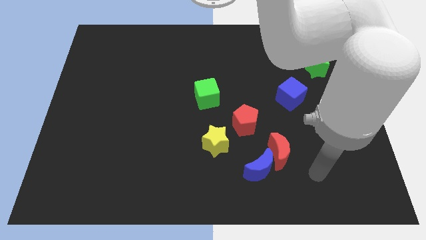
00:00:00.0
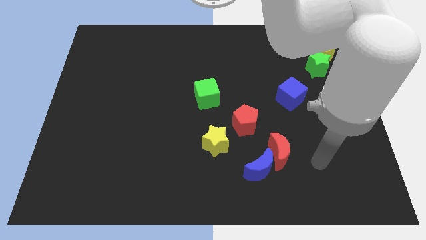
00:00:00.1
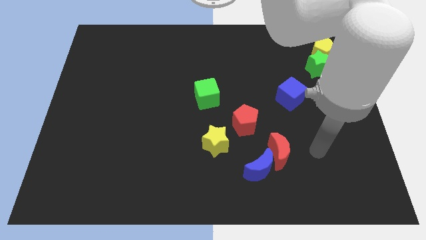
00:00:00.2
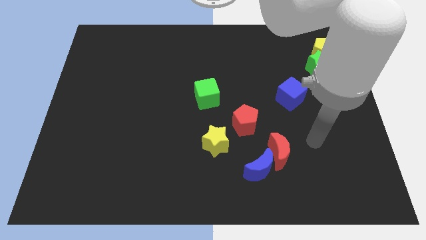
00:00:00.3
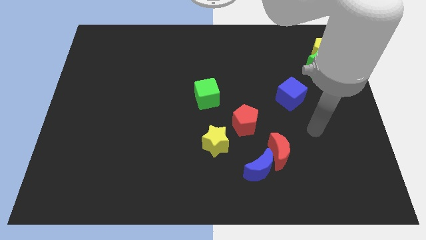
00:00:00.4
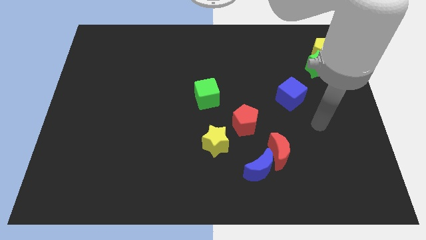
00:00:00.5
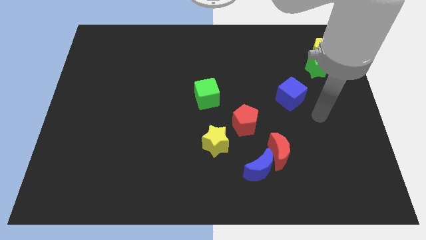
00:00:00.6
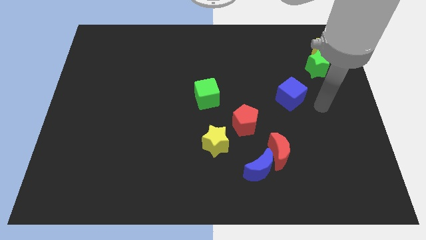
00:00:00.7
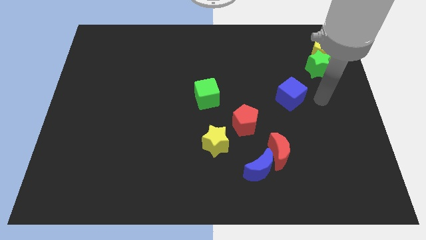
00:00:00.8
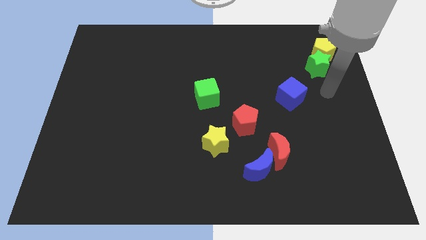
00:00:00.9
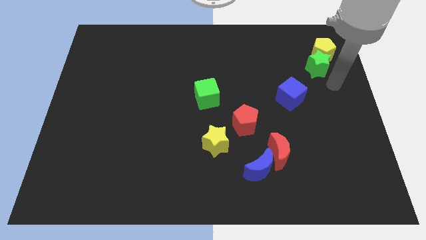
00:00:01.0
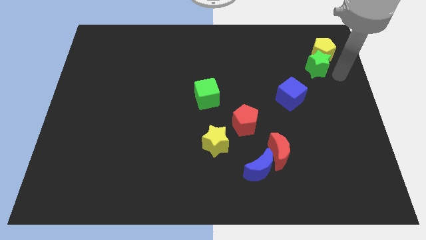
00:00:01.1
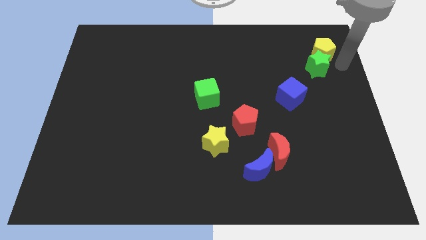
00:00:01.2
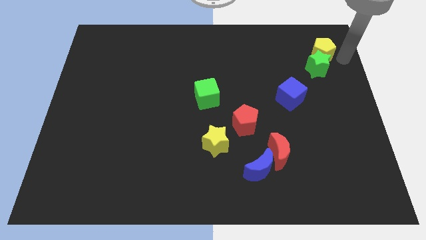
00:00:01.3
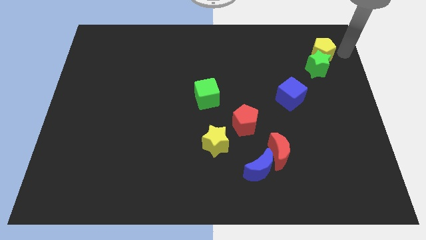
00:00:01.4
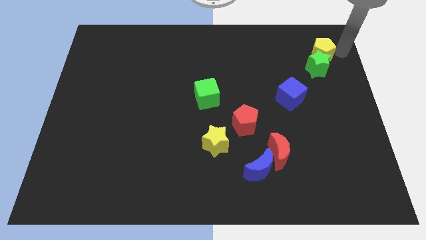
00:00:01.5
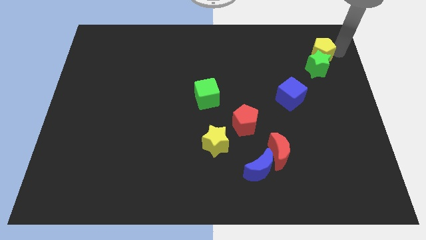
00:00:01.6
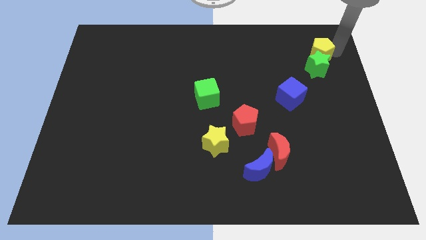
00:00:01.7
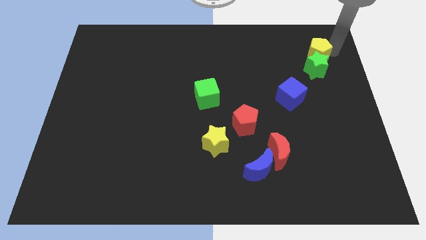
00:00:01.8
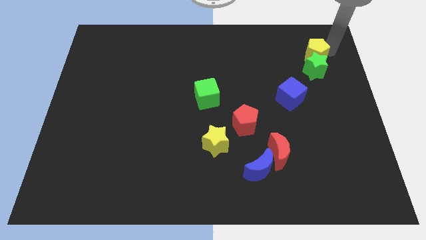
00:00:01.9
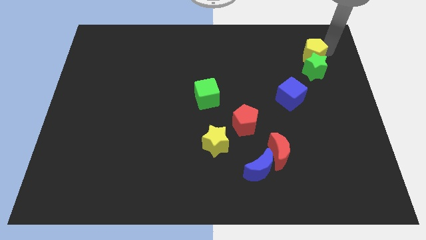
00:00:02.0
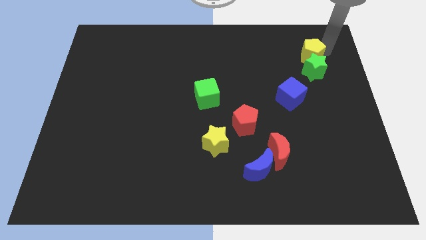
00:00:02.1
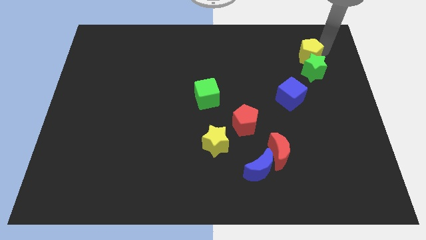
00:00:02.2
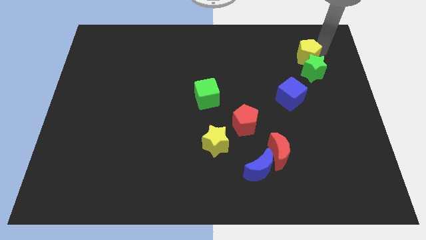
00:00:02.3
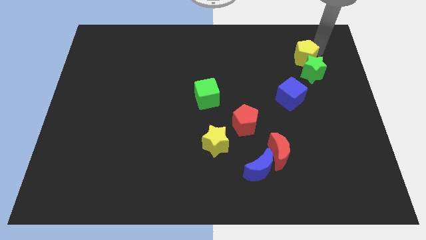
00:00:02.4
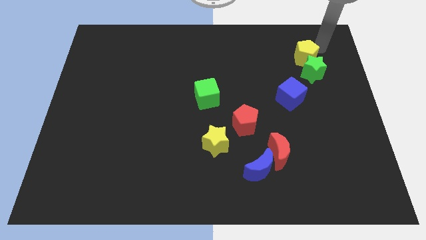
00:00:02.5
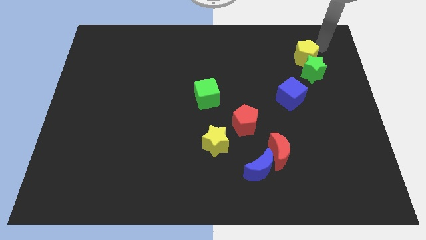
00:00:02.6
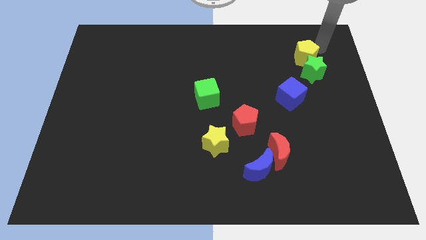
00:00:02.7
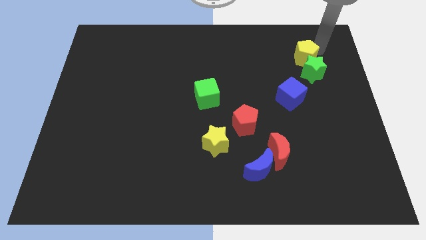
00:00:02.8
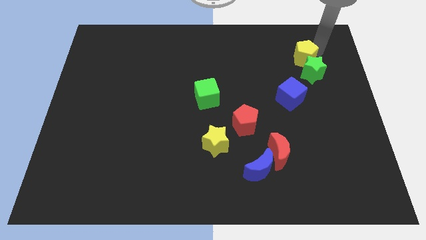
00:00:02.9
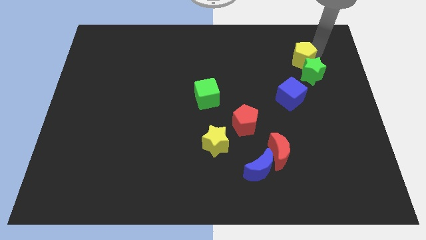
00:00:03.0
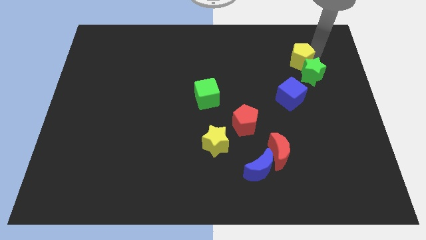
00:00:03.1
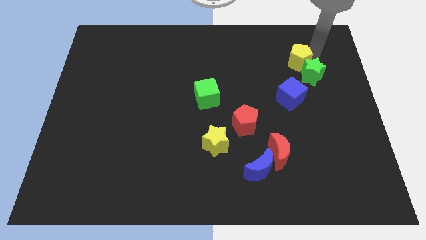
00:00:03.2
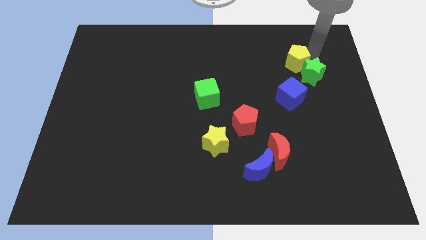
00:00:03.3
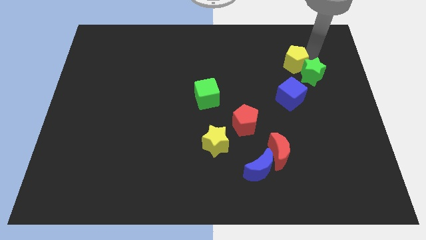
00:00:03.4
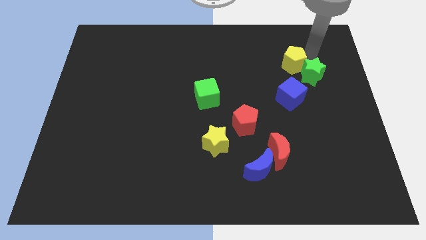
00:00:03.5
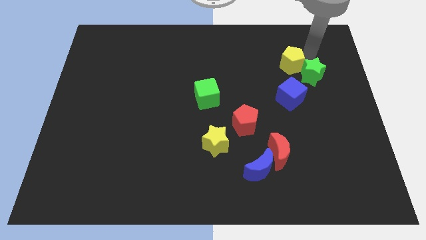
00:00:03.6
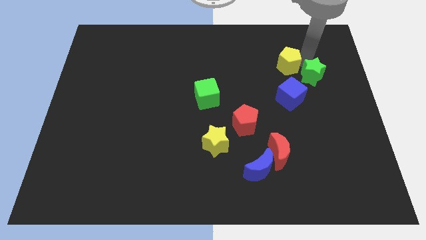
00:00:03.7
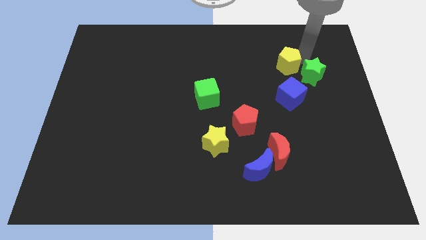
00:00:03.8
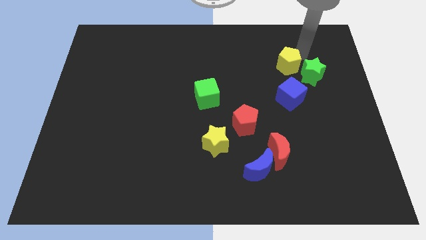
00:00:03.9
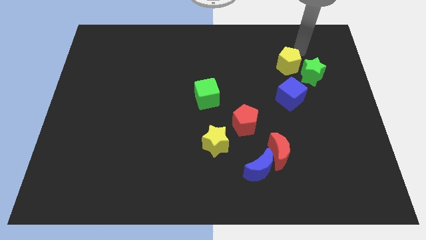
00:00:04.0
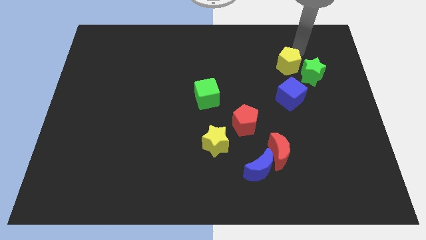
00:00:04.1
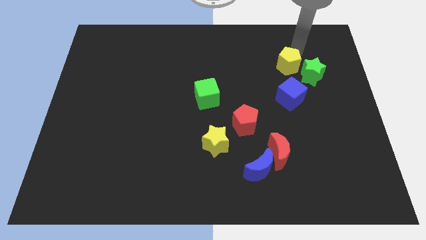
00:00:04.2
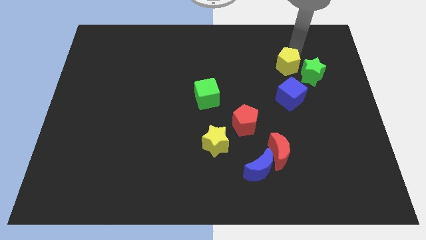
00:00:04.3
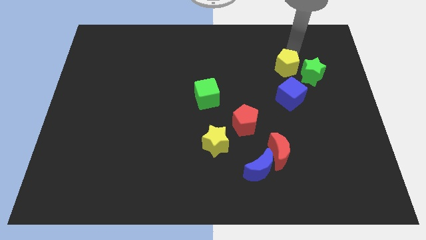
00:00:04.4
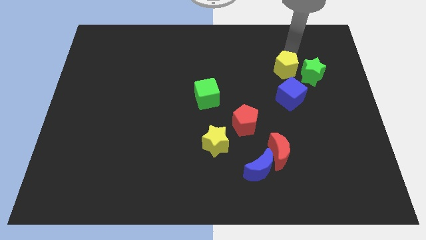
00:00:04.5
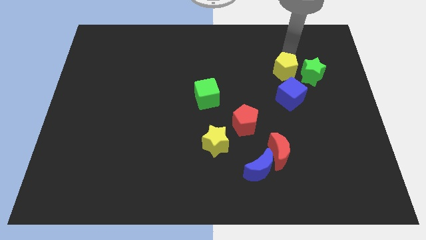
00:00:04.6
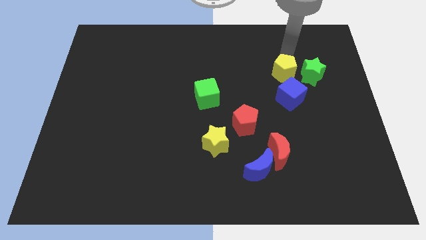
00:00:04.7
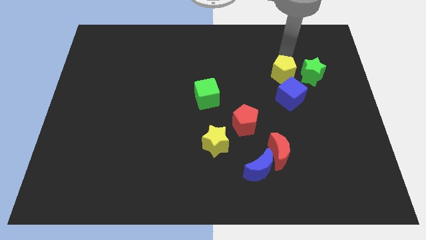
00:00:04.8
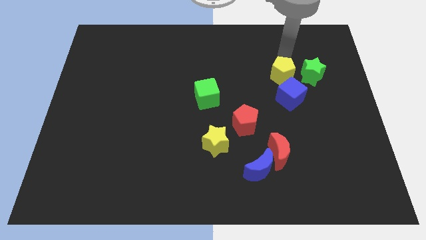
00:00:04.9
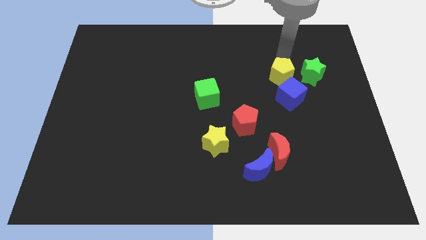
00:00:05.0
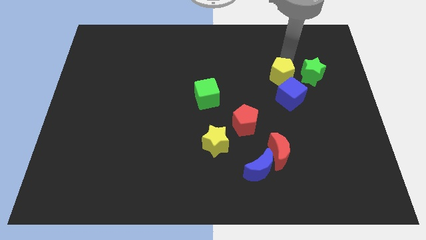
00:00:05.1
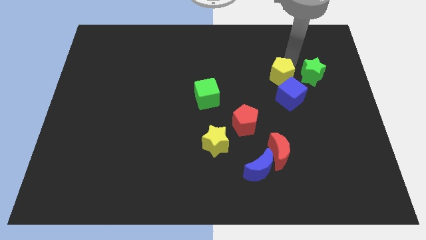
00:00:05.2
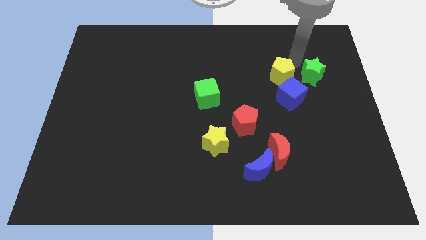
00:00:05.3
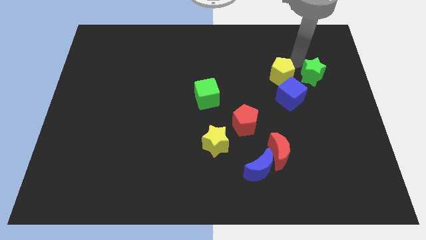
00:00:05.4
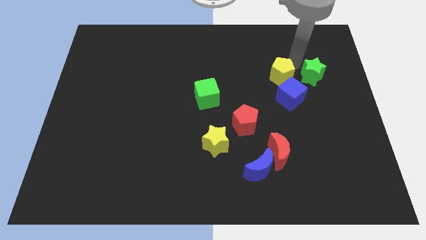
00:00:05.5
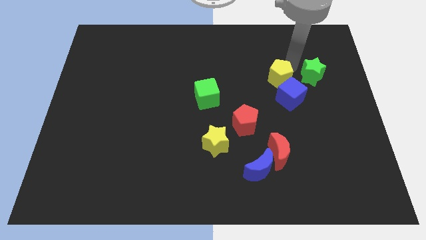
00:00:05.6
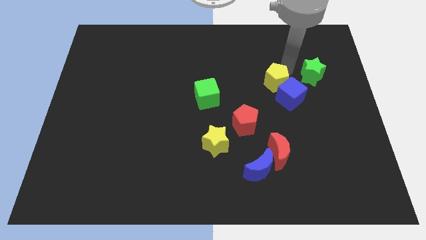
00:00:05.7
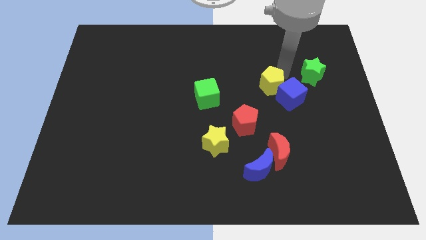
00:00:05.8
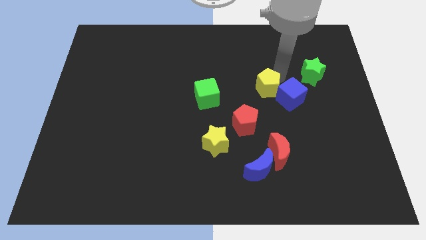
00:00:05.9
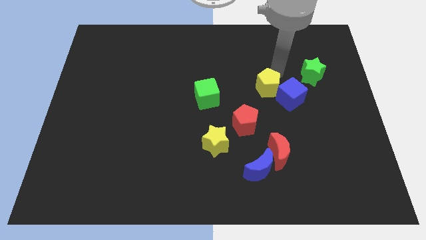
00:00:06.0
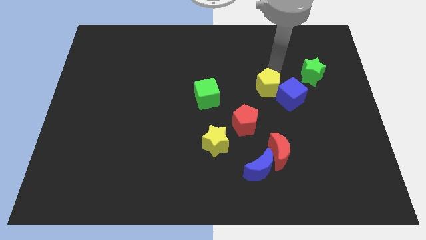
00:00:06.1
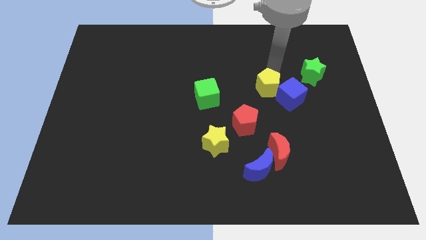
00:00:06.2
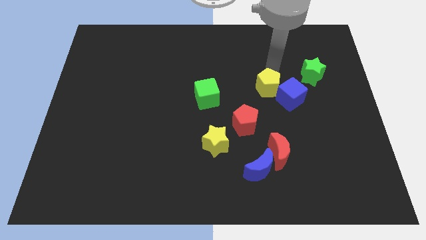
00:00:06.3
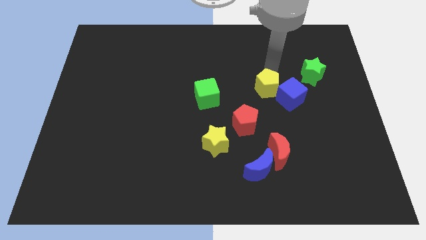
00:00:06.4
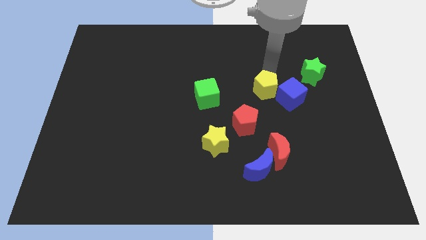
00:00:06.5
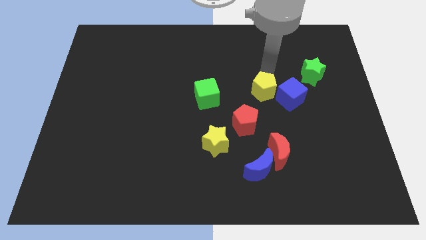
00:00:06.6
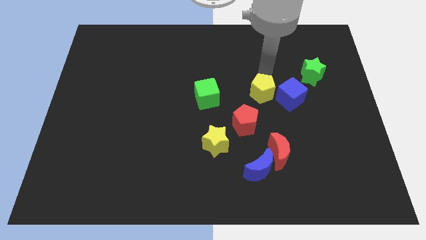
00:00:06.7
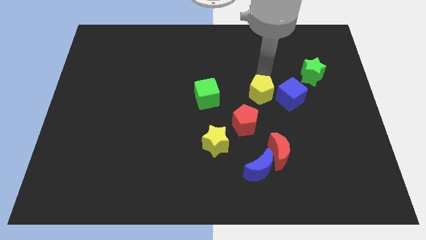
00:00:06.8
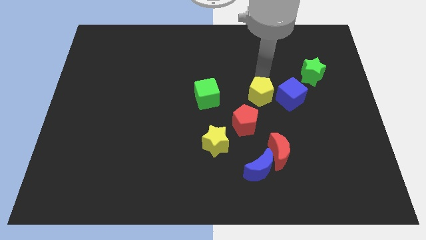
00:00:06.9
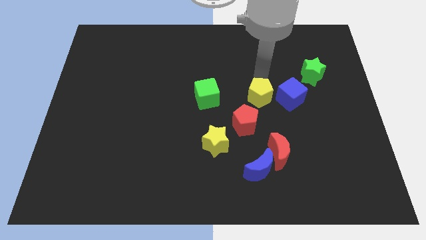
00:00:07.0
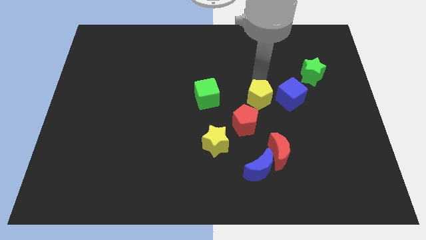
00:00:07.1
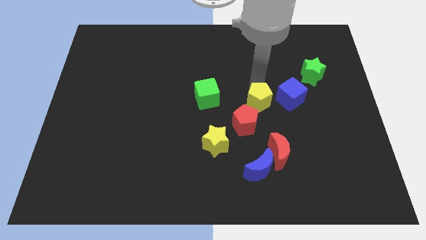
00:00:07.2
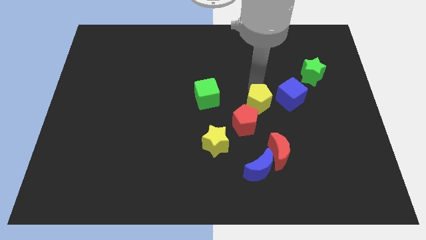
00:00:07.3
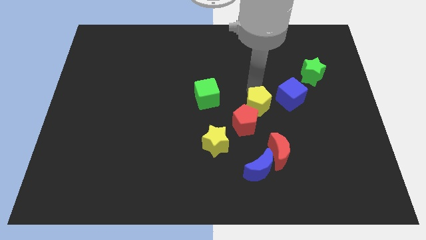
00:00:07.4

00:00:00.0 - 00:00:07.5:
put the yellow pentagon to the red pentagon
